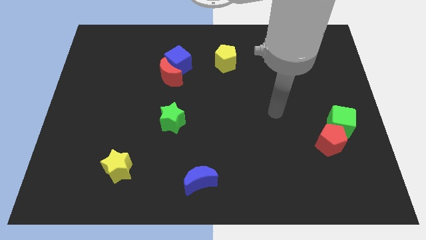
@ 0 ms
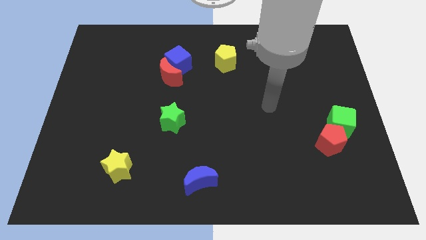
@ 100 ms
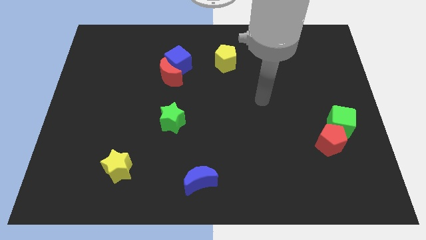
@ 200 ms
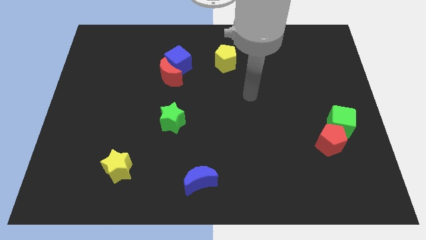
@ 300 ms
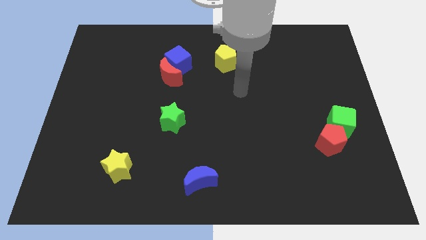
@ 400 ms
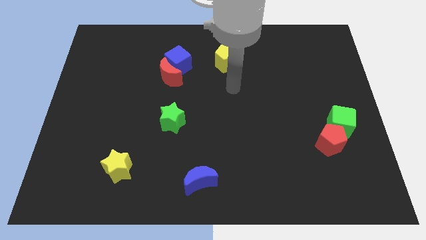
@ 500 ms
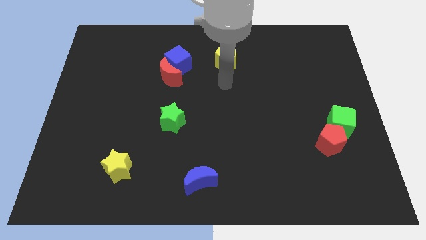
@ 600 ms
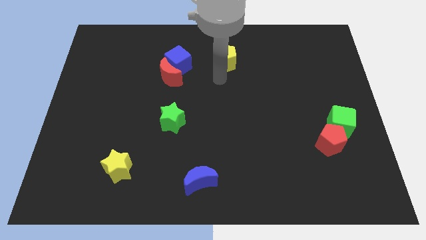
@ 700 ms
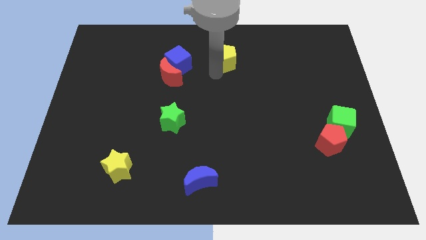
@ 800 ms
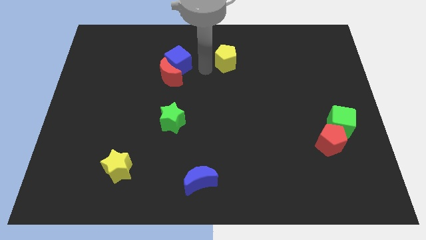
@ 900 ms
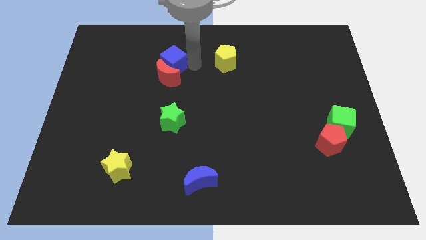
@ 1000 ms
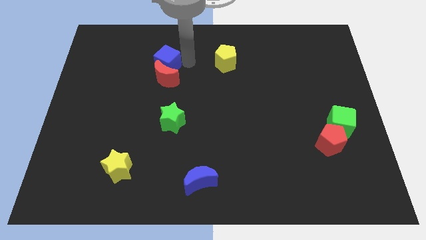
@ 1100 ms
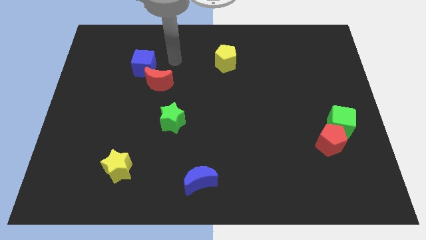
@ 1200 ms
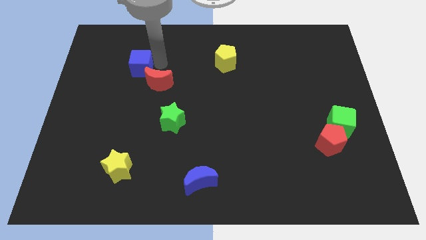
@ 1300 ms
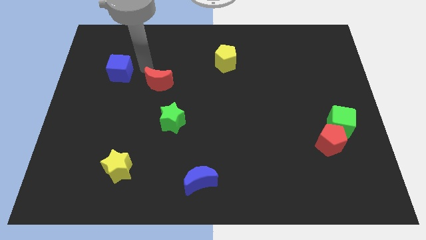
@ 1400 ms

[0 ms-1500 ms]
move the red moon away from the blue cube

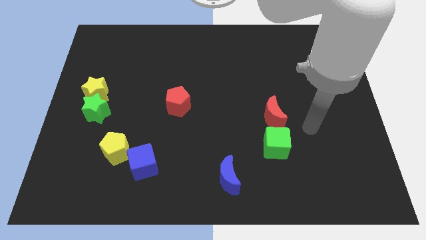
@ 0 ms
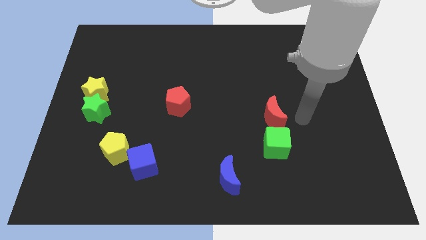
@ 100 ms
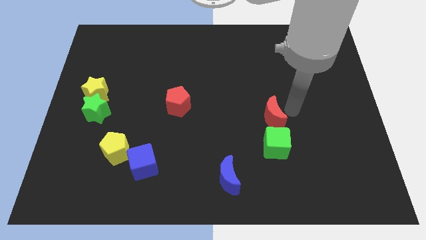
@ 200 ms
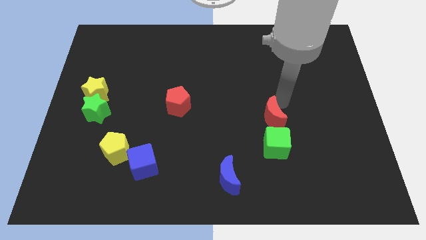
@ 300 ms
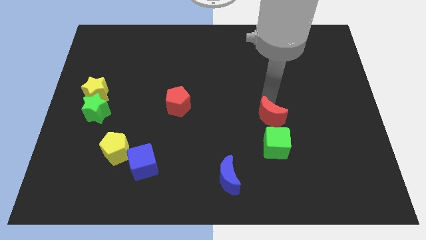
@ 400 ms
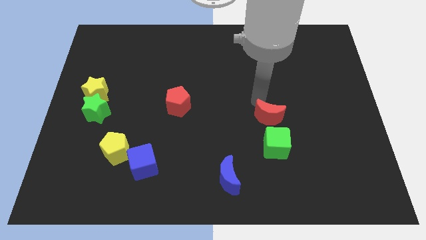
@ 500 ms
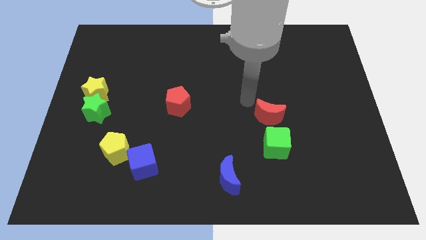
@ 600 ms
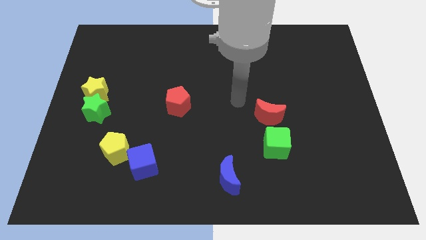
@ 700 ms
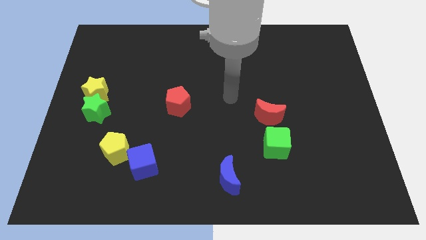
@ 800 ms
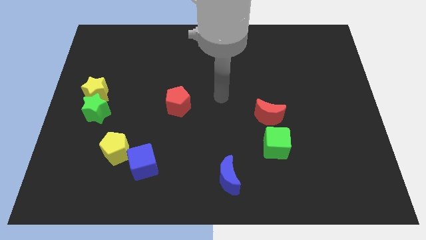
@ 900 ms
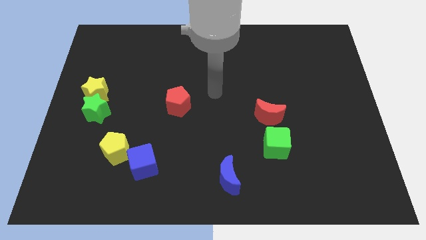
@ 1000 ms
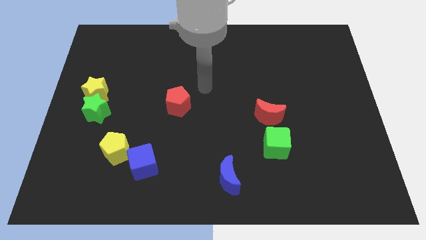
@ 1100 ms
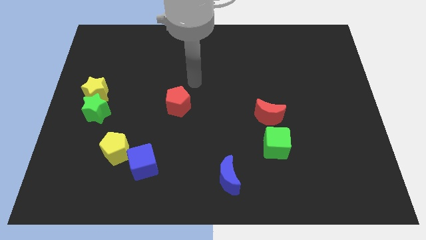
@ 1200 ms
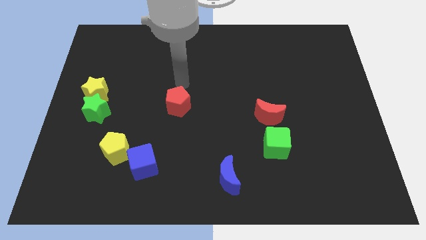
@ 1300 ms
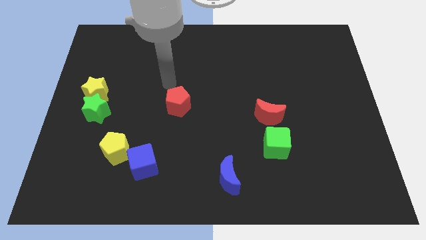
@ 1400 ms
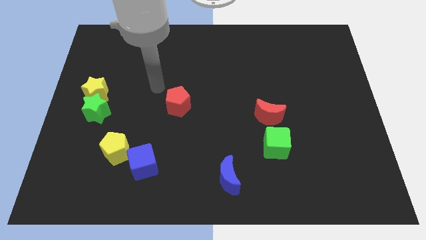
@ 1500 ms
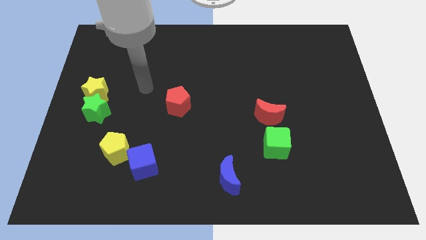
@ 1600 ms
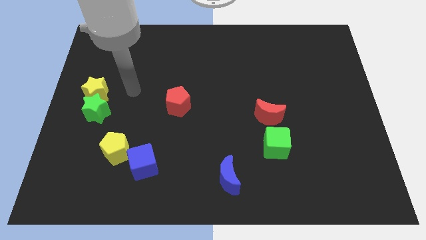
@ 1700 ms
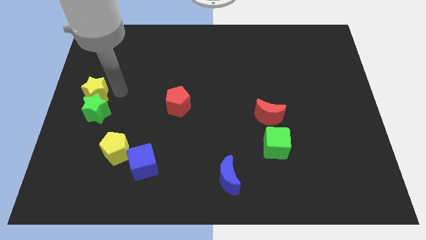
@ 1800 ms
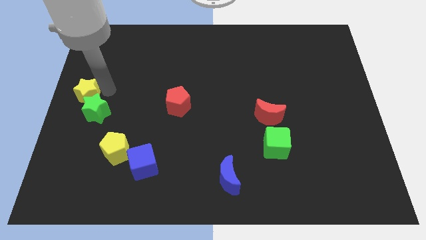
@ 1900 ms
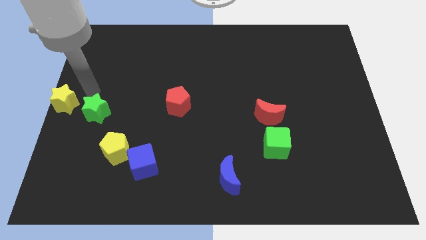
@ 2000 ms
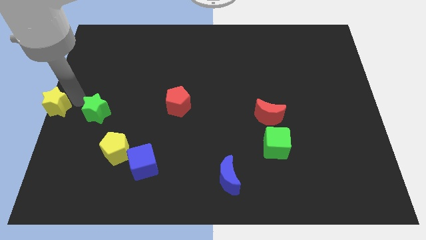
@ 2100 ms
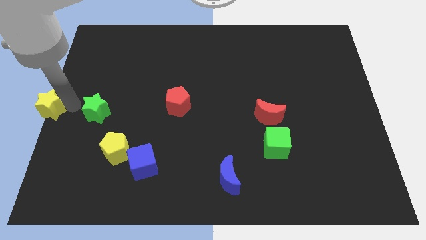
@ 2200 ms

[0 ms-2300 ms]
pull the green star apart from the yellow star

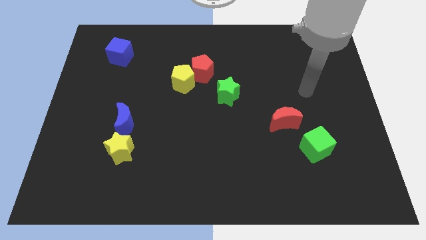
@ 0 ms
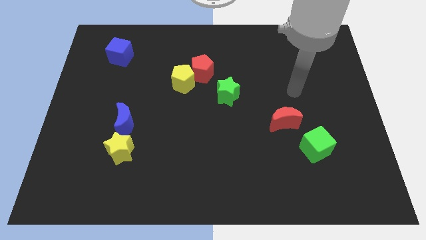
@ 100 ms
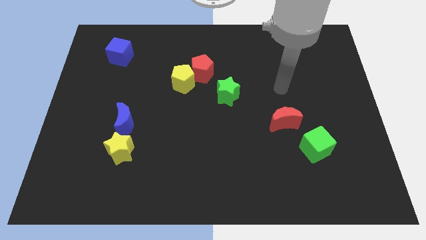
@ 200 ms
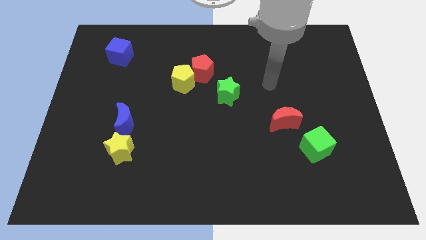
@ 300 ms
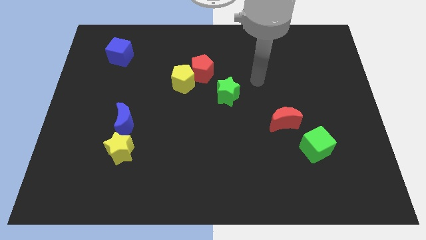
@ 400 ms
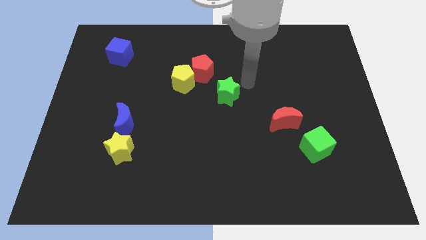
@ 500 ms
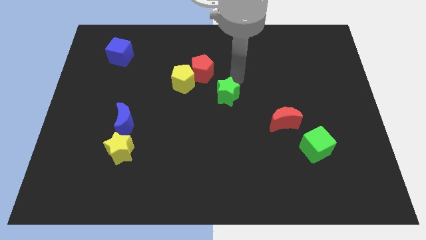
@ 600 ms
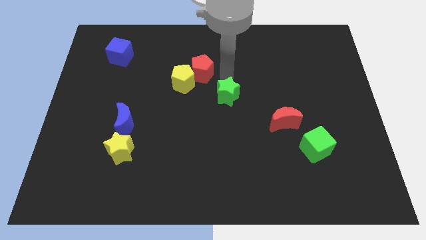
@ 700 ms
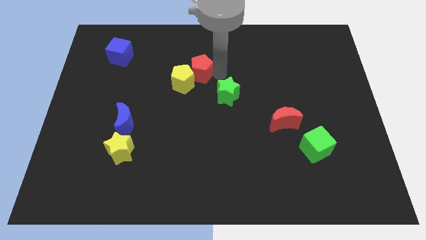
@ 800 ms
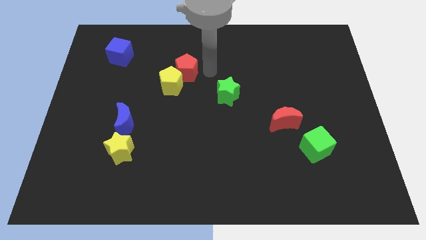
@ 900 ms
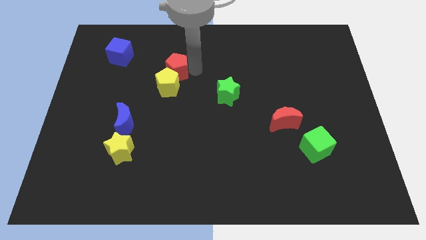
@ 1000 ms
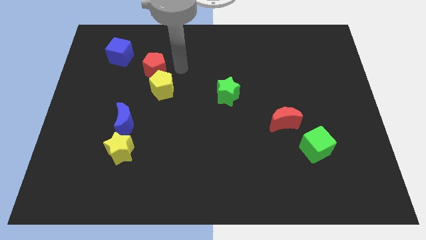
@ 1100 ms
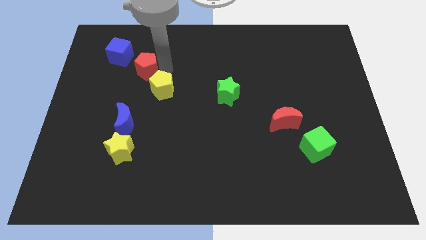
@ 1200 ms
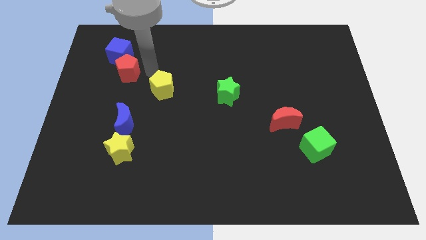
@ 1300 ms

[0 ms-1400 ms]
move the yellow pentagon away from the red pentagon

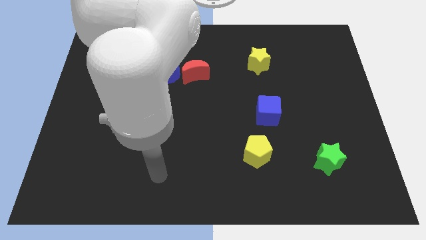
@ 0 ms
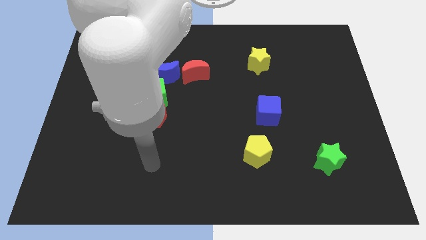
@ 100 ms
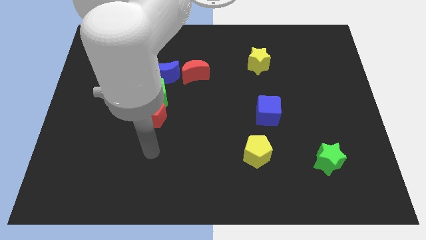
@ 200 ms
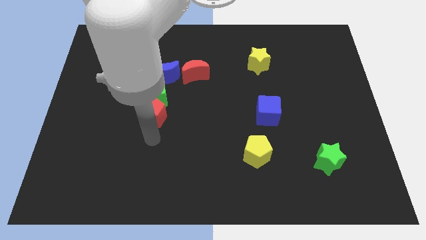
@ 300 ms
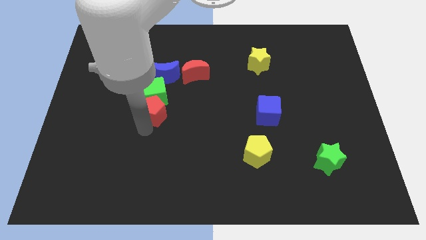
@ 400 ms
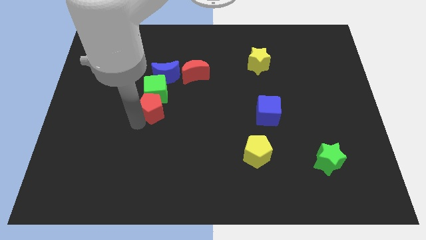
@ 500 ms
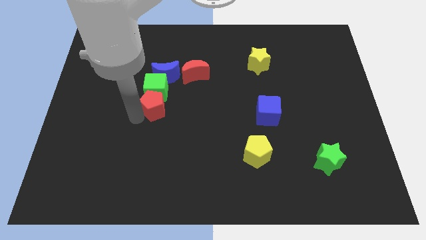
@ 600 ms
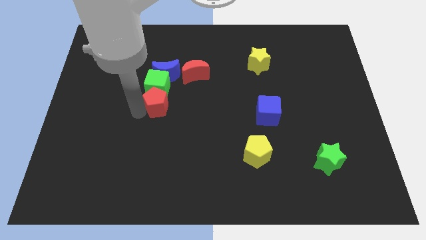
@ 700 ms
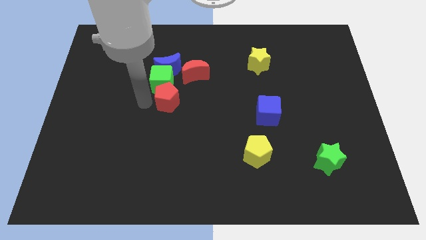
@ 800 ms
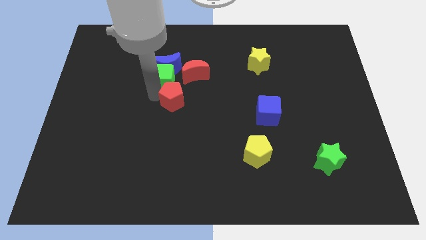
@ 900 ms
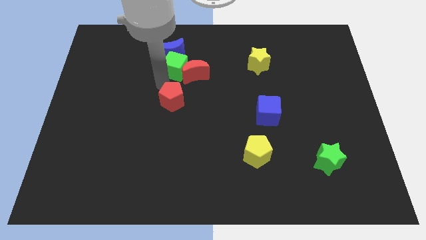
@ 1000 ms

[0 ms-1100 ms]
move the red pentagon away from the green cube

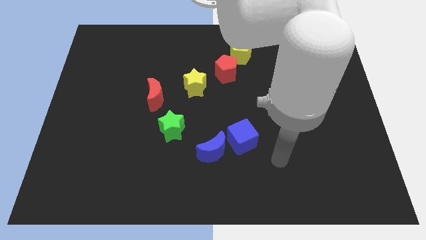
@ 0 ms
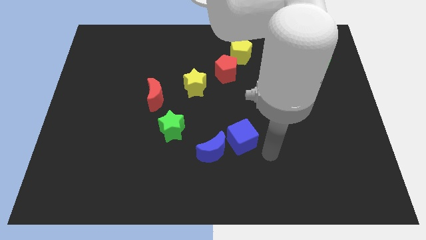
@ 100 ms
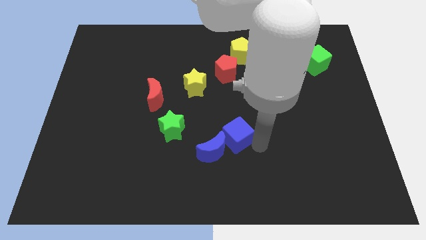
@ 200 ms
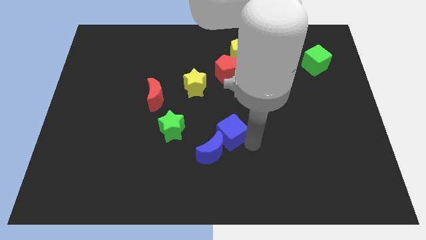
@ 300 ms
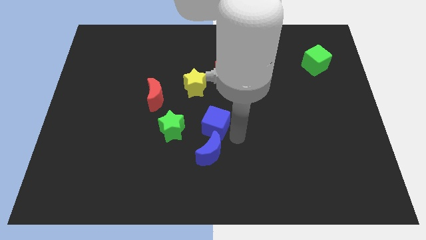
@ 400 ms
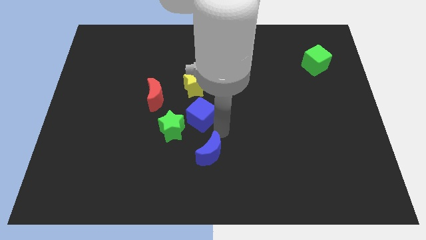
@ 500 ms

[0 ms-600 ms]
separate the blue moon from the blue cube

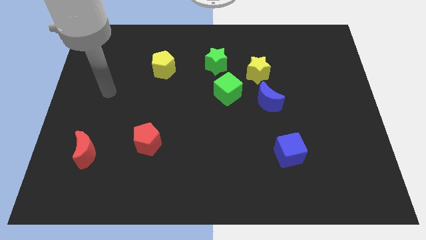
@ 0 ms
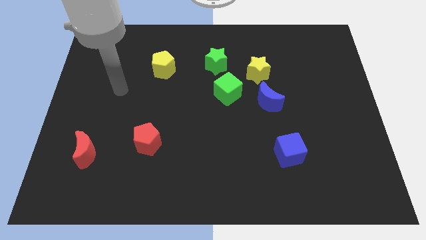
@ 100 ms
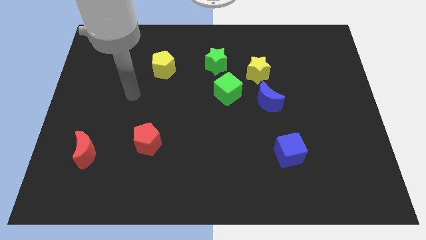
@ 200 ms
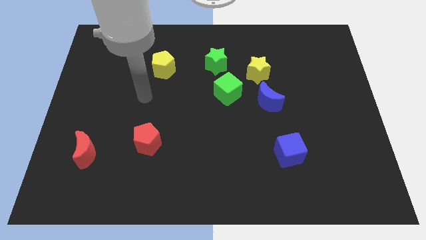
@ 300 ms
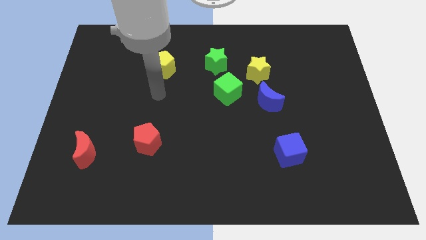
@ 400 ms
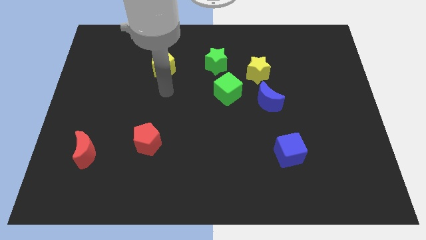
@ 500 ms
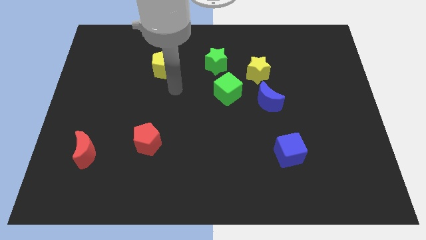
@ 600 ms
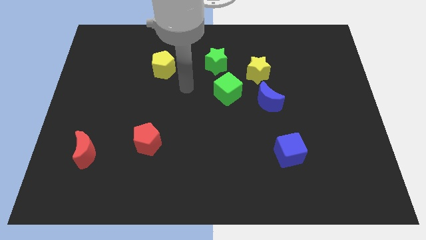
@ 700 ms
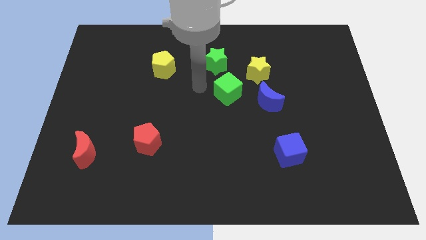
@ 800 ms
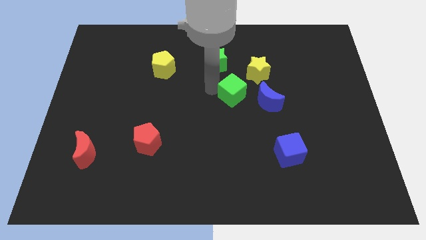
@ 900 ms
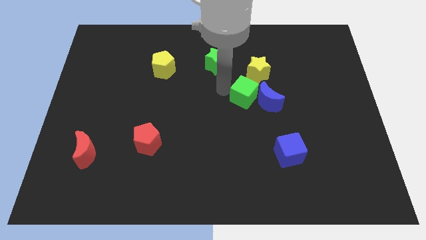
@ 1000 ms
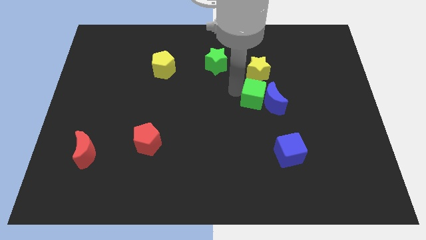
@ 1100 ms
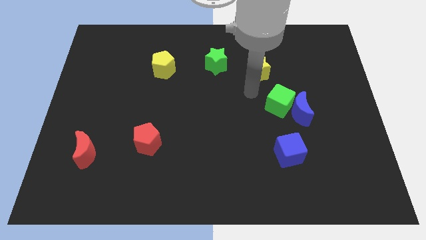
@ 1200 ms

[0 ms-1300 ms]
separate the yellow star from the blue moon and green cube

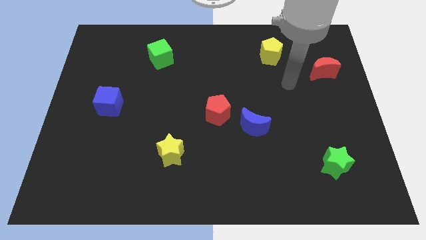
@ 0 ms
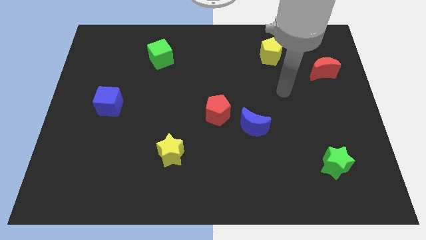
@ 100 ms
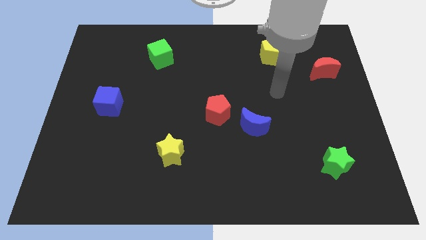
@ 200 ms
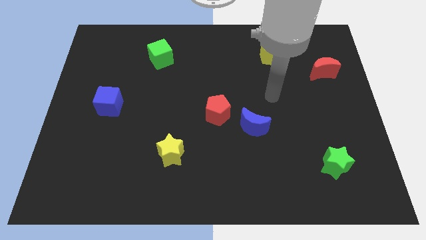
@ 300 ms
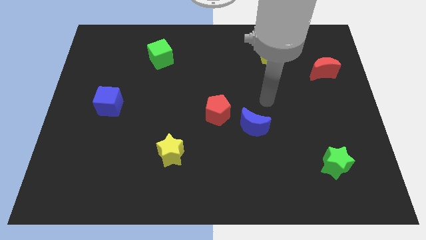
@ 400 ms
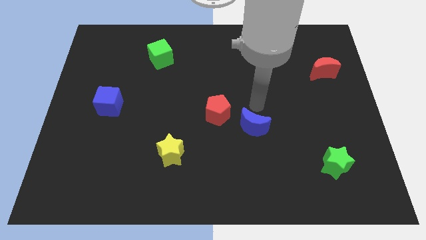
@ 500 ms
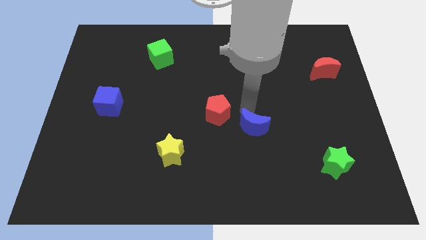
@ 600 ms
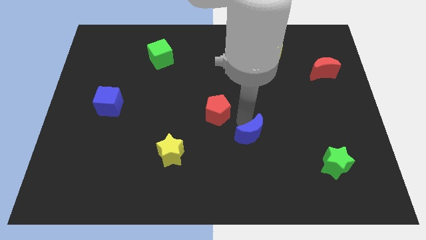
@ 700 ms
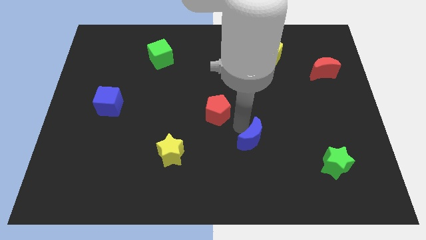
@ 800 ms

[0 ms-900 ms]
separate the red pentagon from the blue moon

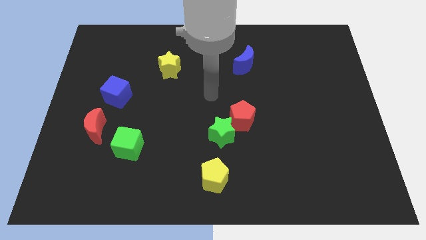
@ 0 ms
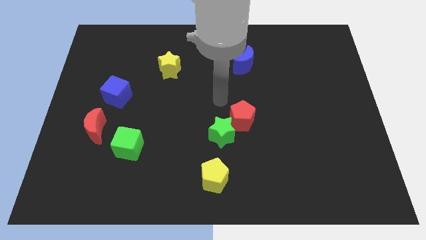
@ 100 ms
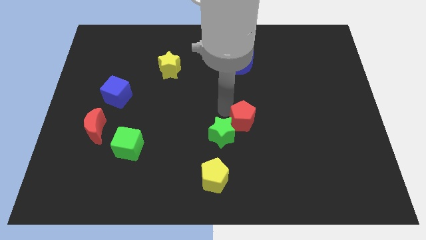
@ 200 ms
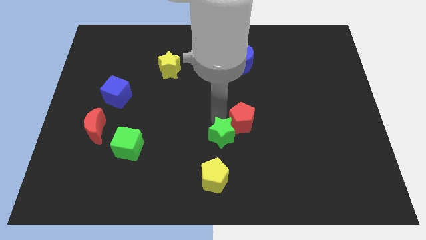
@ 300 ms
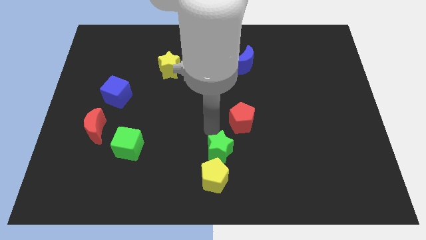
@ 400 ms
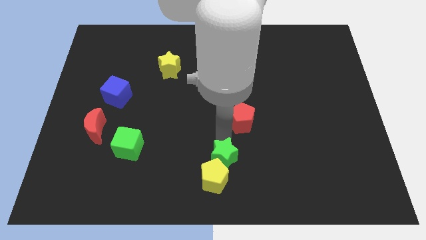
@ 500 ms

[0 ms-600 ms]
separate the red pentagon from the green star
